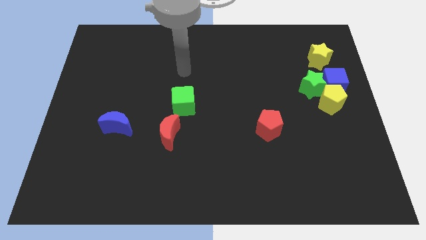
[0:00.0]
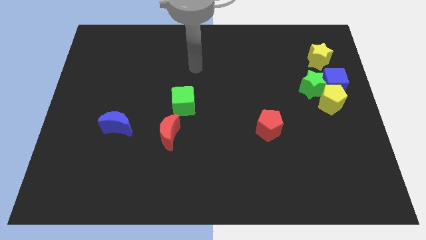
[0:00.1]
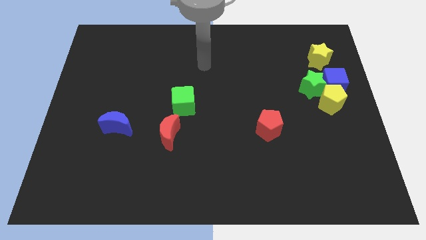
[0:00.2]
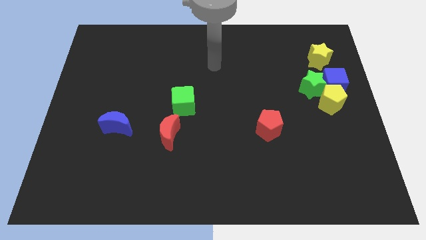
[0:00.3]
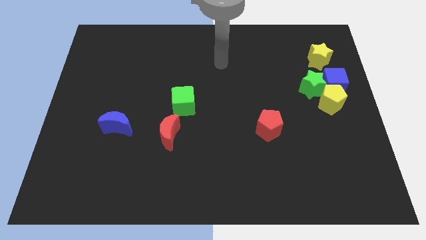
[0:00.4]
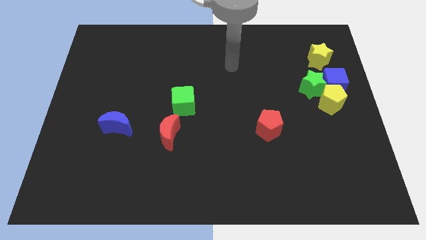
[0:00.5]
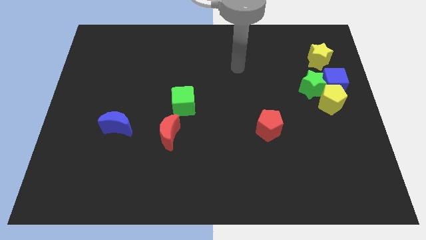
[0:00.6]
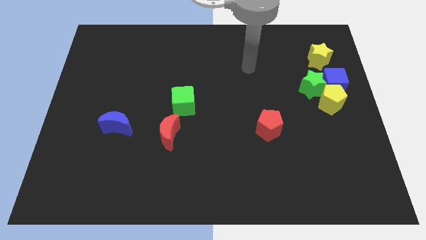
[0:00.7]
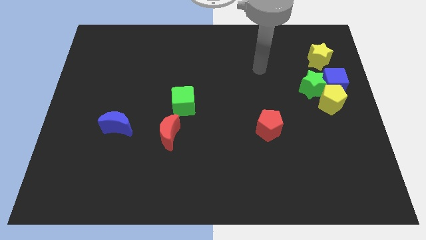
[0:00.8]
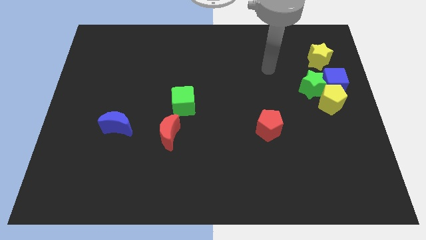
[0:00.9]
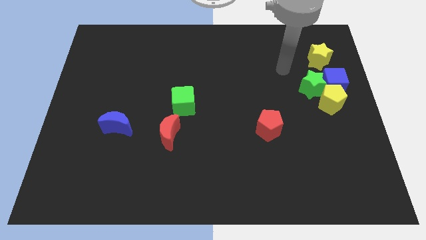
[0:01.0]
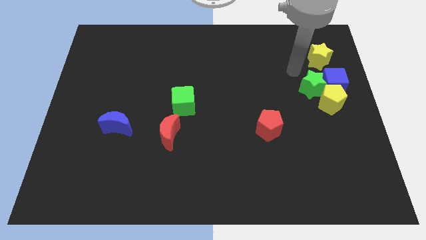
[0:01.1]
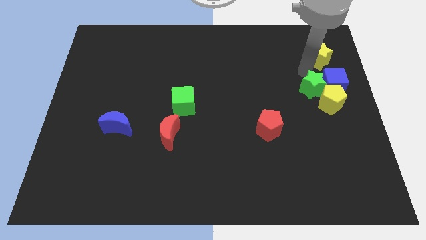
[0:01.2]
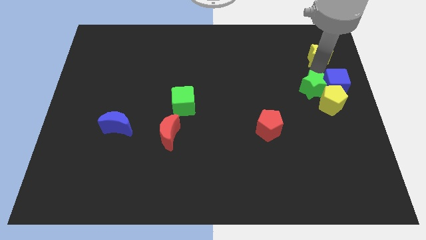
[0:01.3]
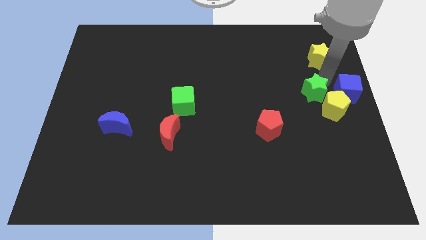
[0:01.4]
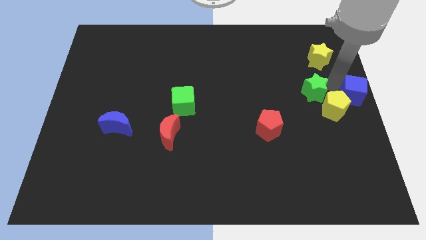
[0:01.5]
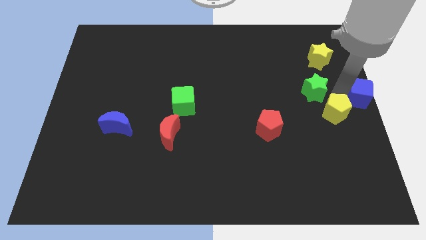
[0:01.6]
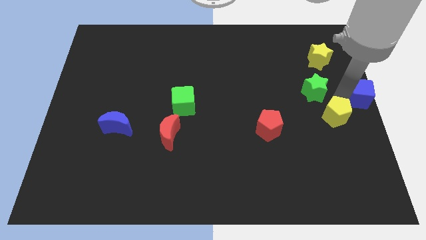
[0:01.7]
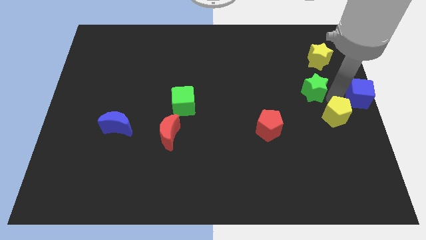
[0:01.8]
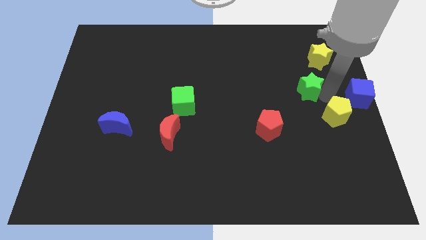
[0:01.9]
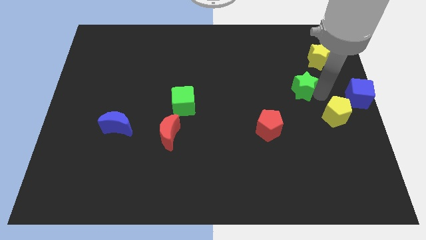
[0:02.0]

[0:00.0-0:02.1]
move the green star away from the blue cube and yellow pentagon

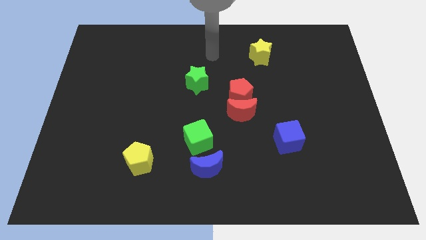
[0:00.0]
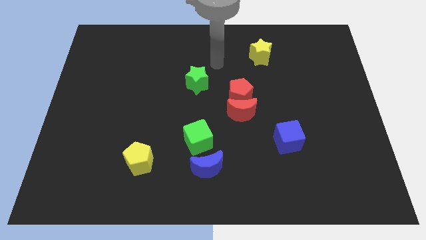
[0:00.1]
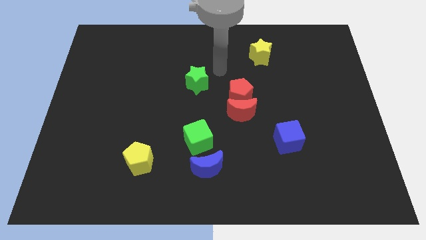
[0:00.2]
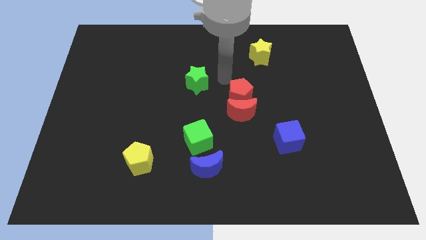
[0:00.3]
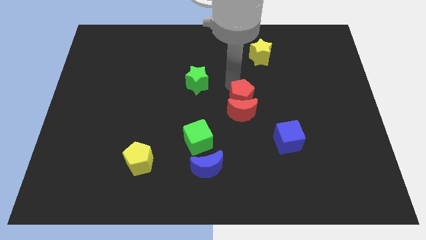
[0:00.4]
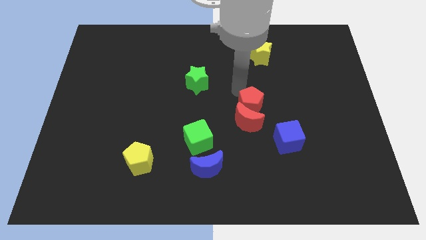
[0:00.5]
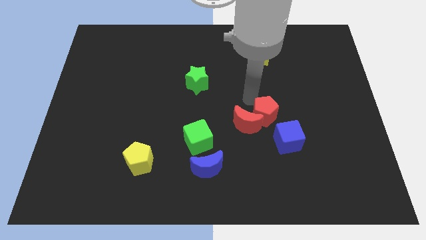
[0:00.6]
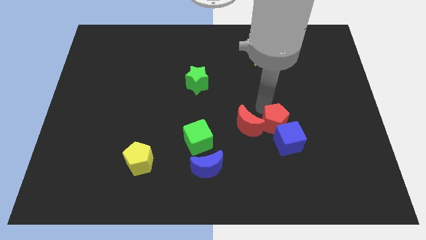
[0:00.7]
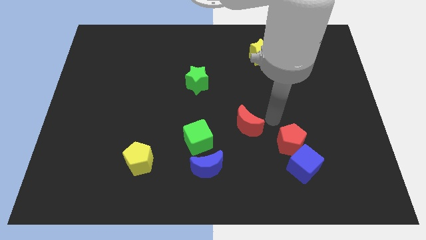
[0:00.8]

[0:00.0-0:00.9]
pull the red moon apart from the red pentagon

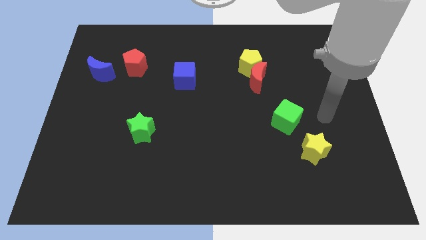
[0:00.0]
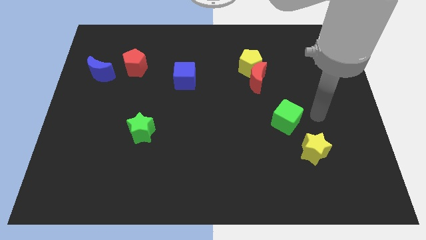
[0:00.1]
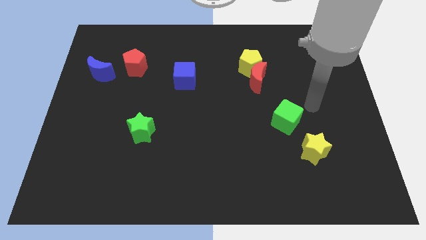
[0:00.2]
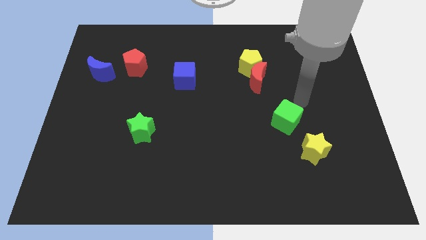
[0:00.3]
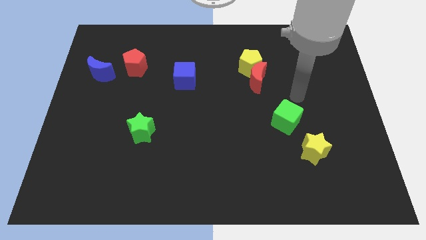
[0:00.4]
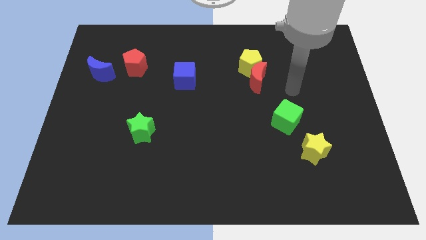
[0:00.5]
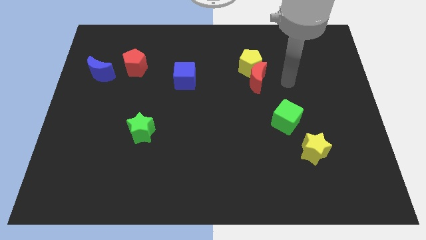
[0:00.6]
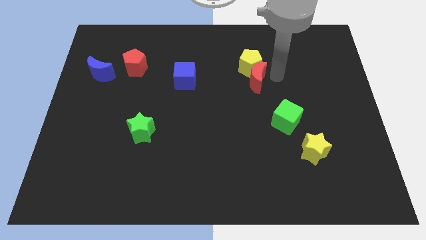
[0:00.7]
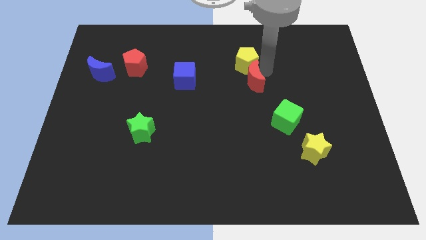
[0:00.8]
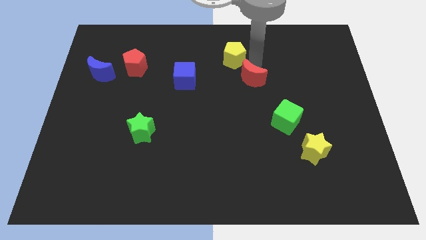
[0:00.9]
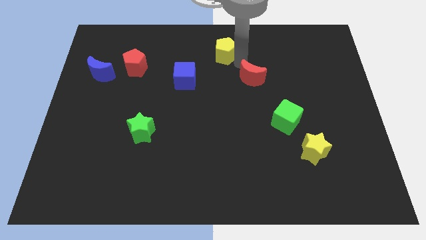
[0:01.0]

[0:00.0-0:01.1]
pull the red moon apart from the yellow pentagon

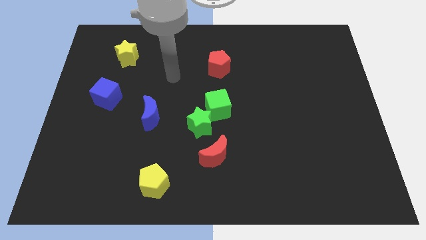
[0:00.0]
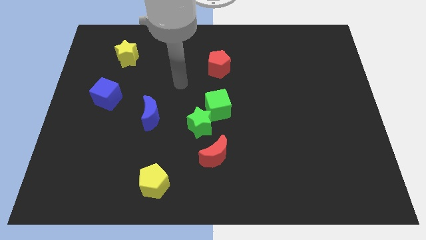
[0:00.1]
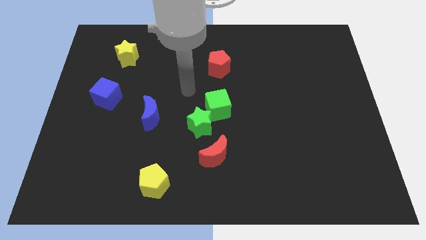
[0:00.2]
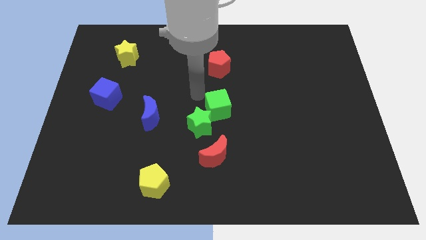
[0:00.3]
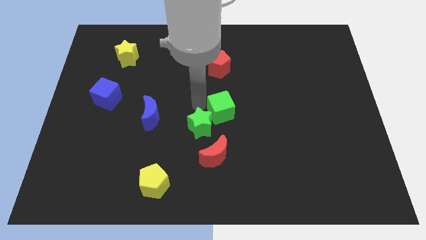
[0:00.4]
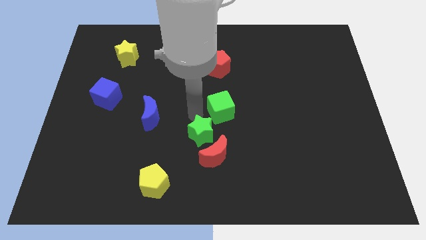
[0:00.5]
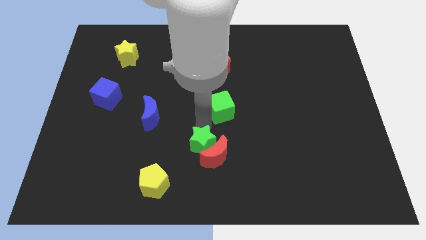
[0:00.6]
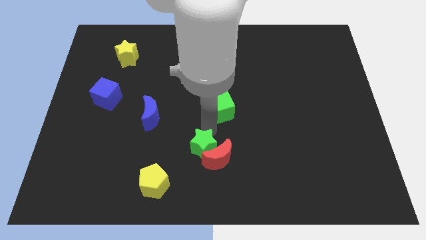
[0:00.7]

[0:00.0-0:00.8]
move the green cube away from the green star

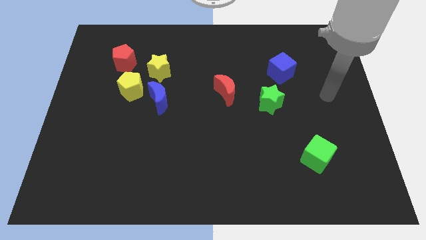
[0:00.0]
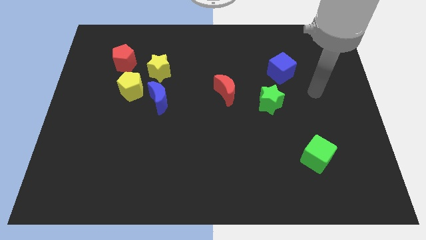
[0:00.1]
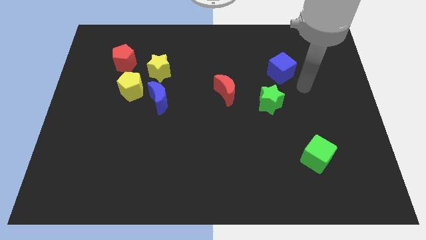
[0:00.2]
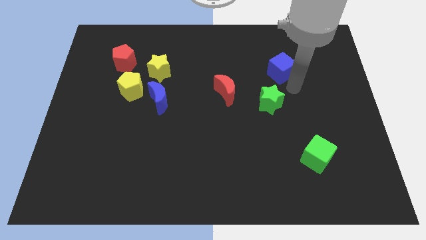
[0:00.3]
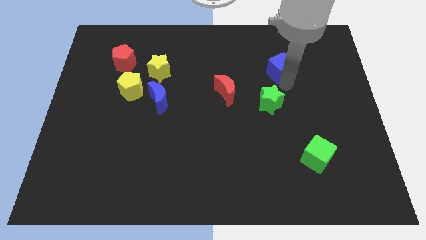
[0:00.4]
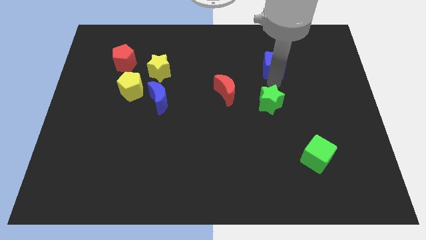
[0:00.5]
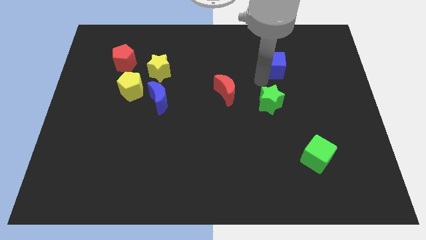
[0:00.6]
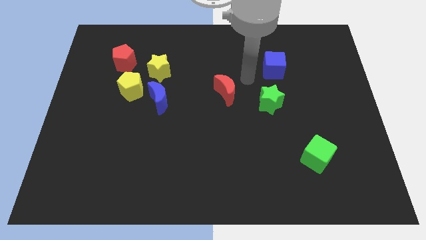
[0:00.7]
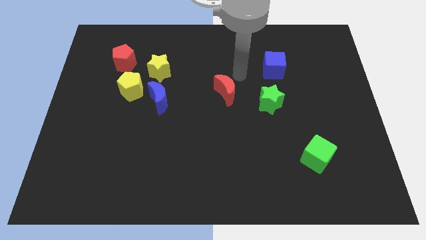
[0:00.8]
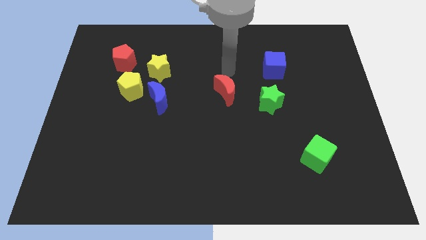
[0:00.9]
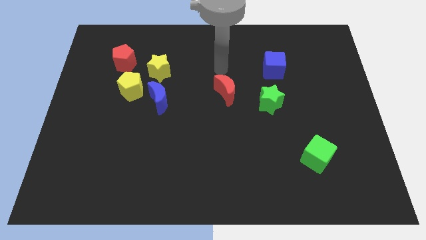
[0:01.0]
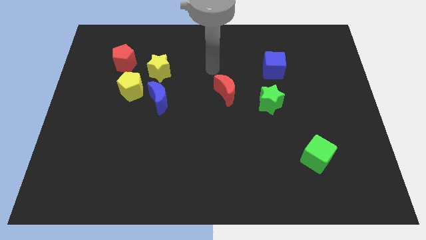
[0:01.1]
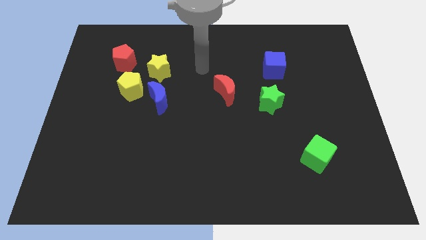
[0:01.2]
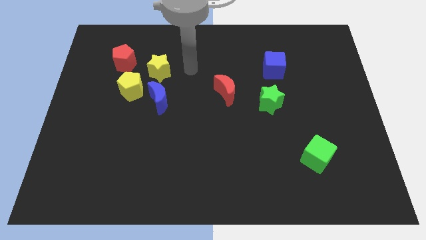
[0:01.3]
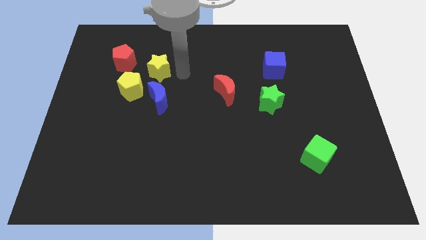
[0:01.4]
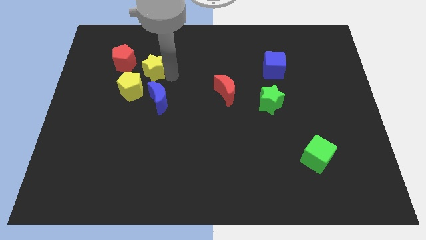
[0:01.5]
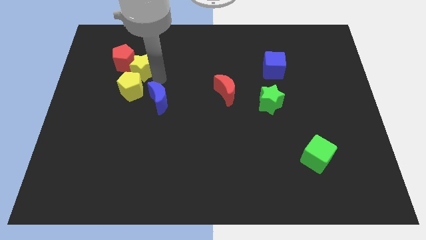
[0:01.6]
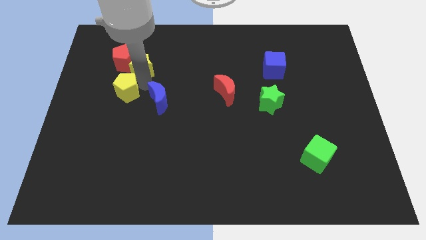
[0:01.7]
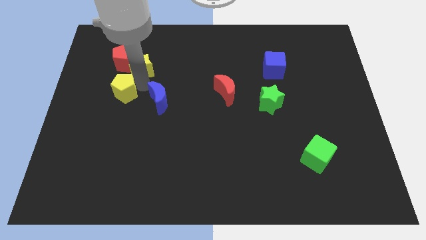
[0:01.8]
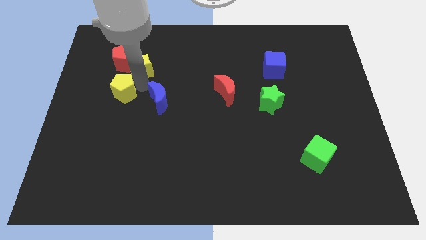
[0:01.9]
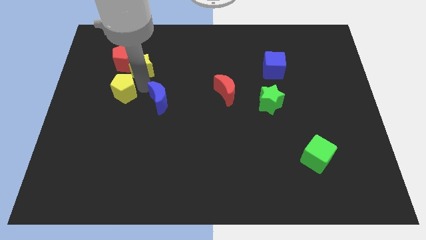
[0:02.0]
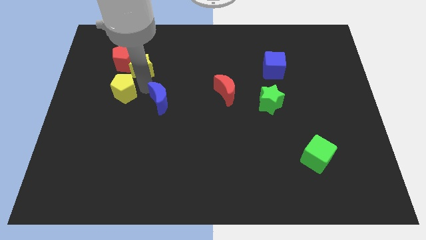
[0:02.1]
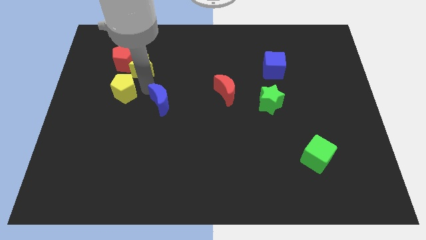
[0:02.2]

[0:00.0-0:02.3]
separate the blue moon from the yellow pentagon and yellow star

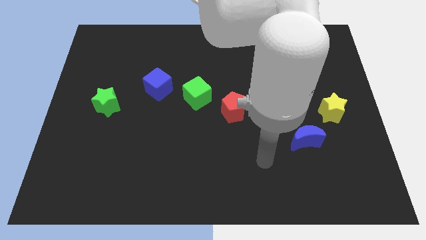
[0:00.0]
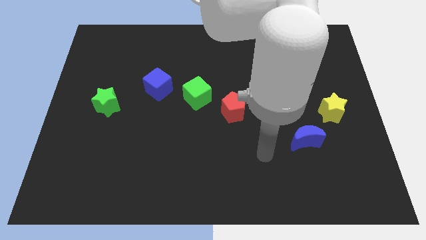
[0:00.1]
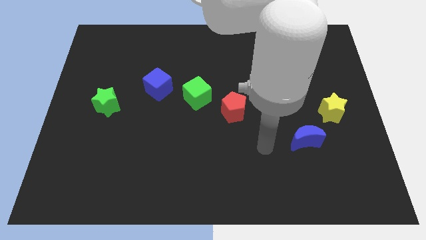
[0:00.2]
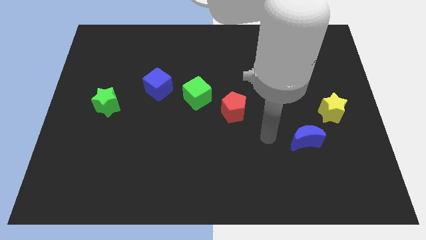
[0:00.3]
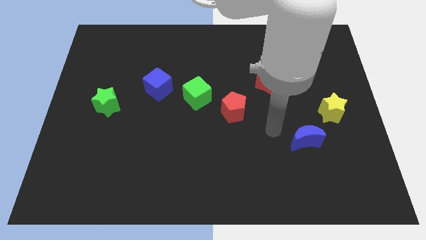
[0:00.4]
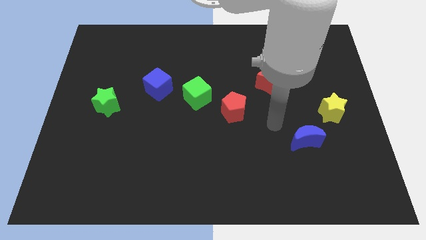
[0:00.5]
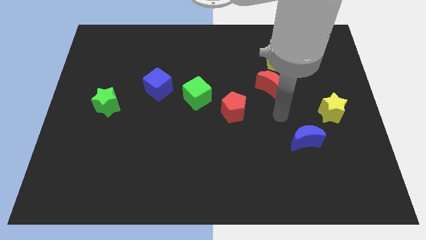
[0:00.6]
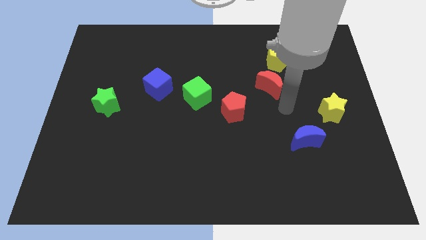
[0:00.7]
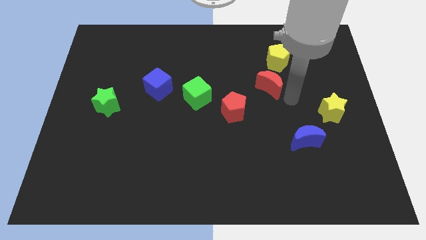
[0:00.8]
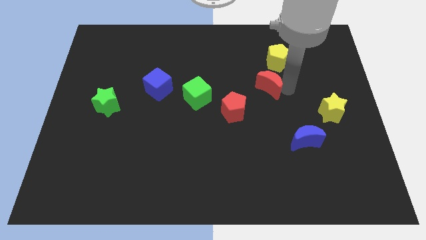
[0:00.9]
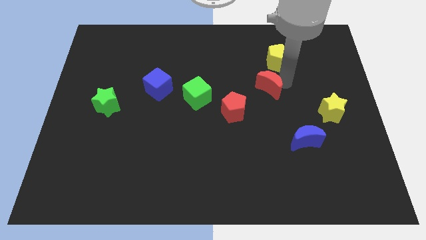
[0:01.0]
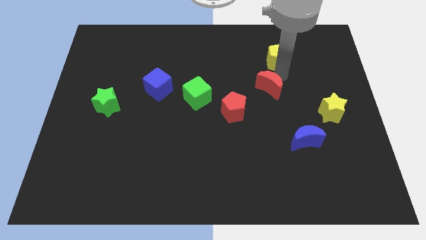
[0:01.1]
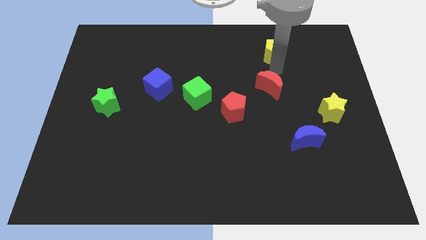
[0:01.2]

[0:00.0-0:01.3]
separate the red moon from the yellow pentagon

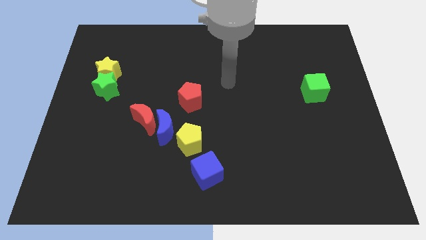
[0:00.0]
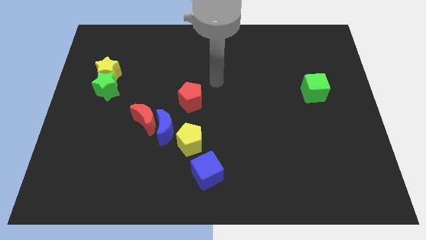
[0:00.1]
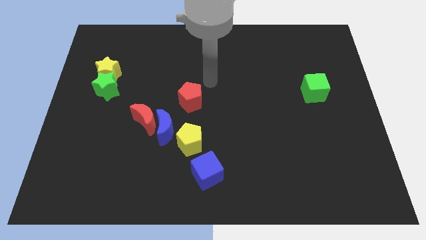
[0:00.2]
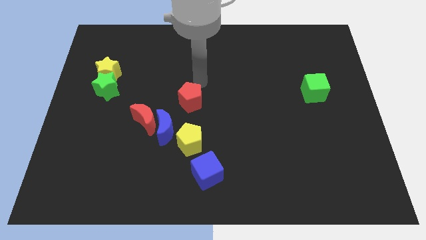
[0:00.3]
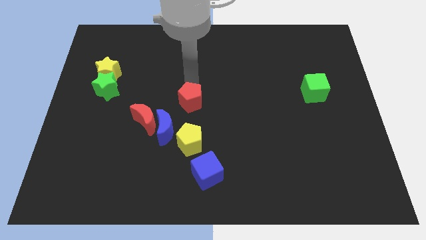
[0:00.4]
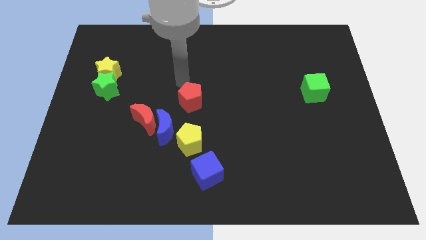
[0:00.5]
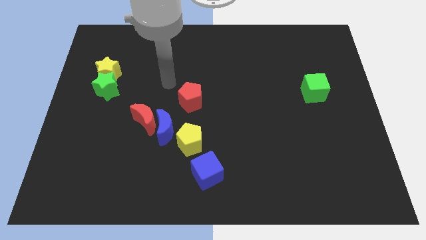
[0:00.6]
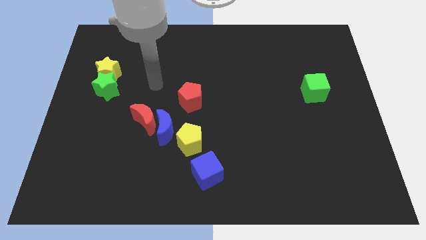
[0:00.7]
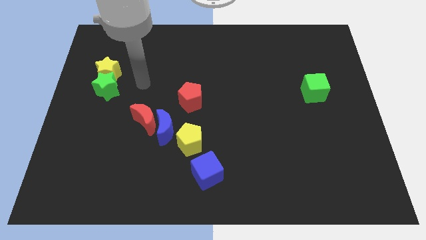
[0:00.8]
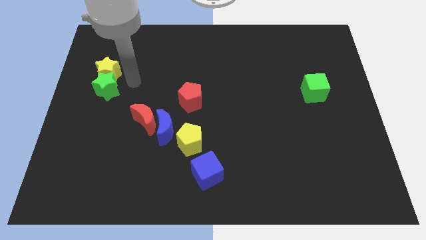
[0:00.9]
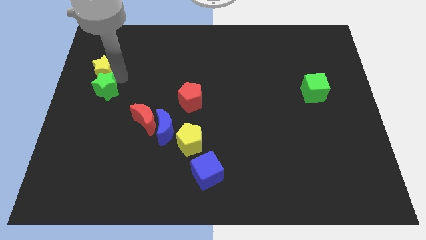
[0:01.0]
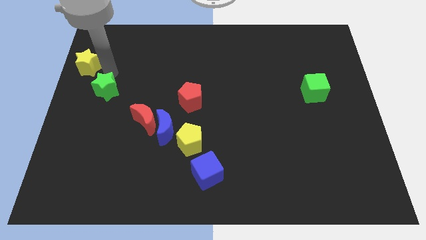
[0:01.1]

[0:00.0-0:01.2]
pull the green star apart from the yellow star
